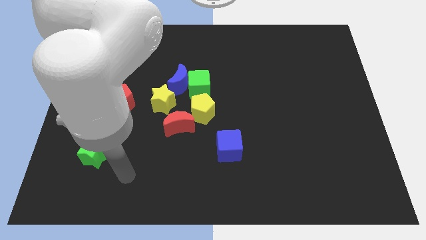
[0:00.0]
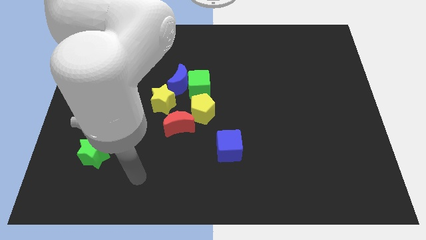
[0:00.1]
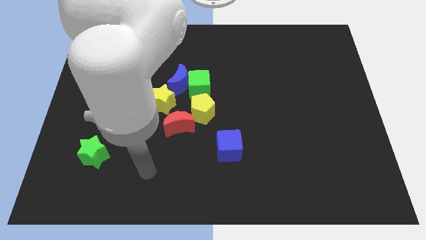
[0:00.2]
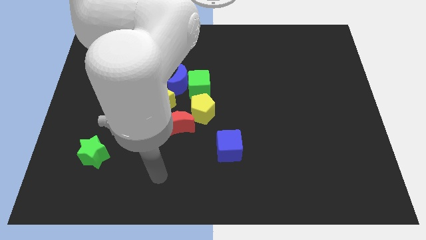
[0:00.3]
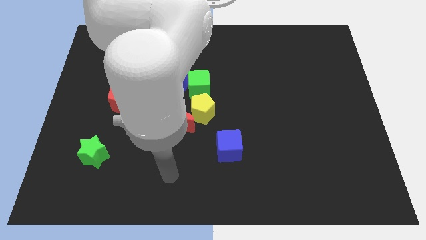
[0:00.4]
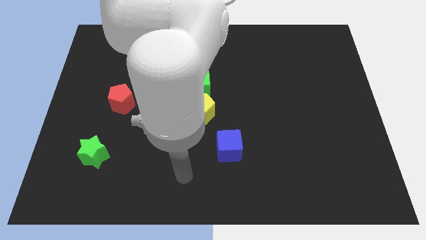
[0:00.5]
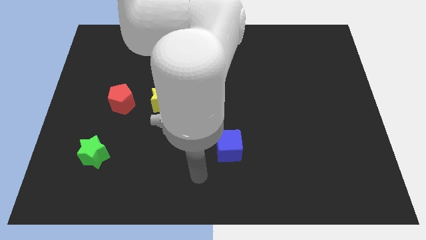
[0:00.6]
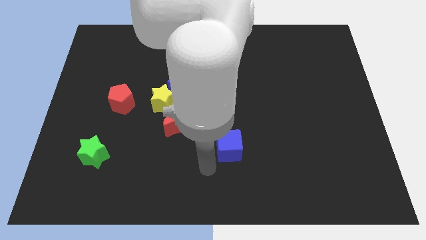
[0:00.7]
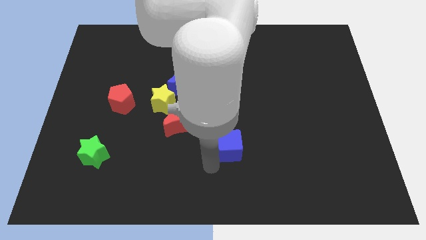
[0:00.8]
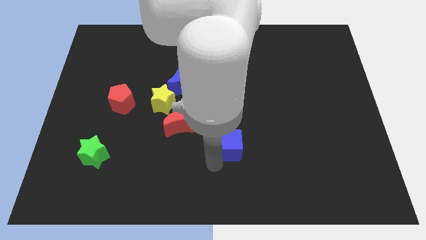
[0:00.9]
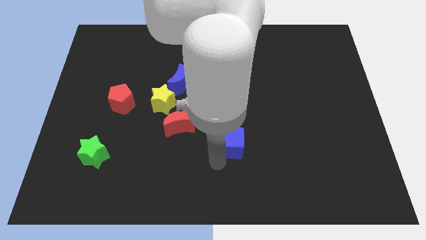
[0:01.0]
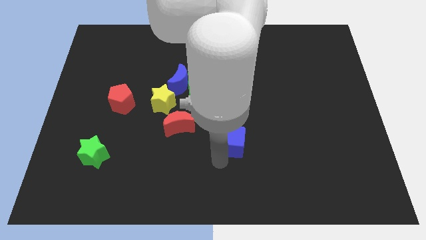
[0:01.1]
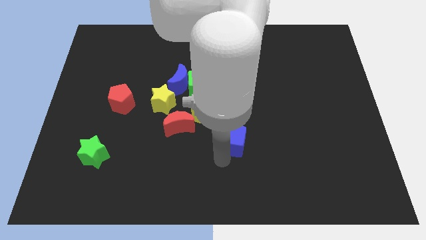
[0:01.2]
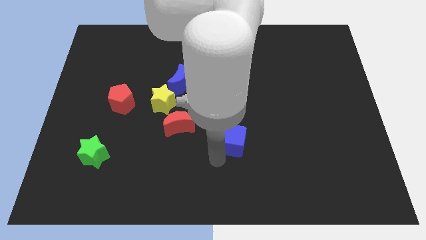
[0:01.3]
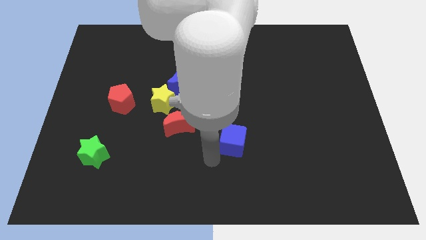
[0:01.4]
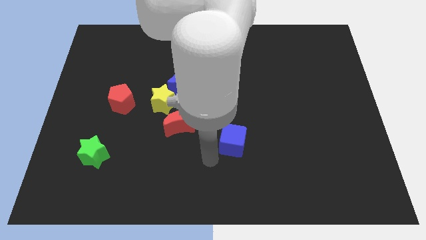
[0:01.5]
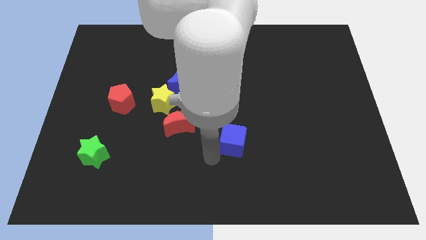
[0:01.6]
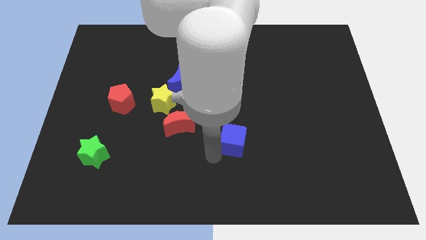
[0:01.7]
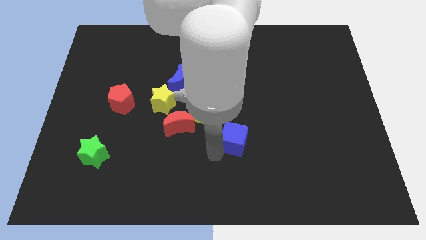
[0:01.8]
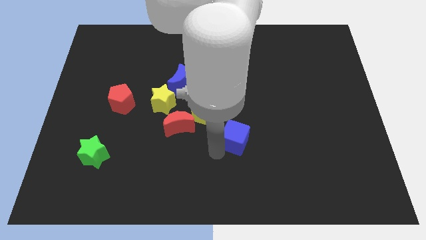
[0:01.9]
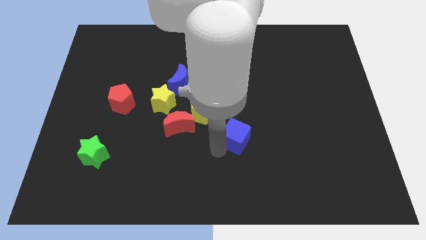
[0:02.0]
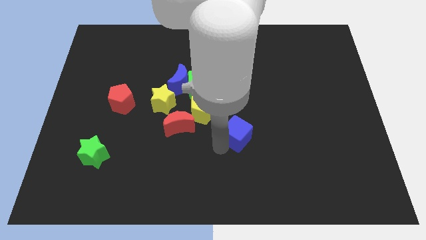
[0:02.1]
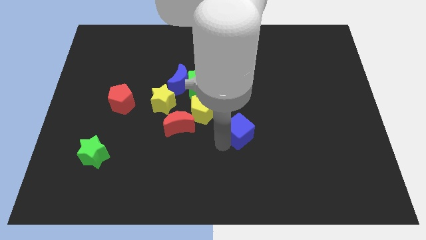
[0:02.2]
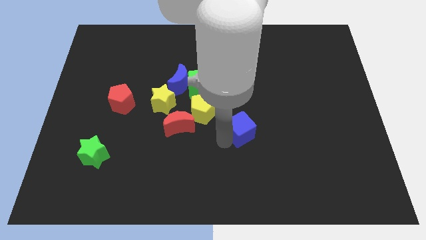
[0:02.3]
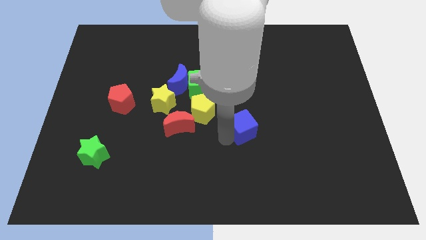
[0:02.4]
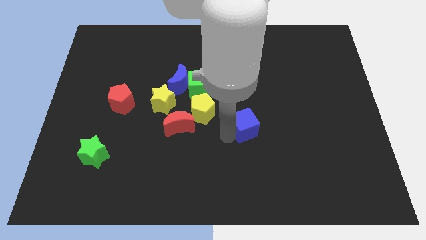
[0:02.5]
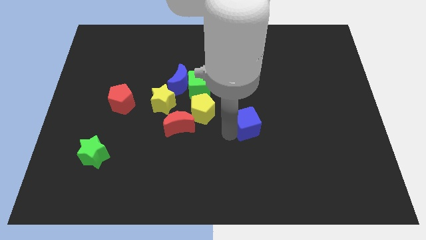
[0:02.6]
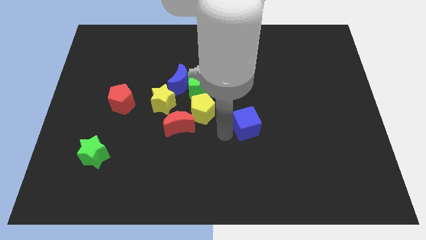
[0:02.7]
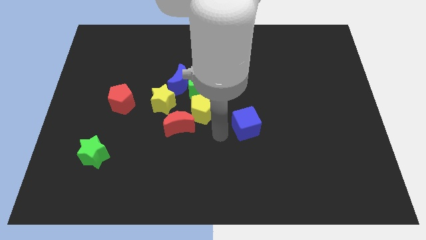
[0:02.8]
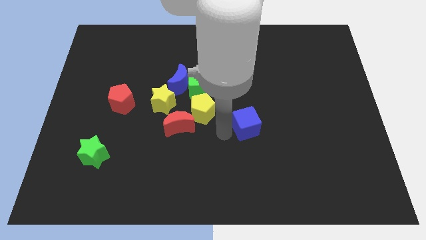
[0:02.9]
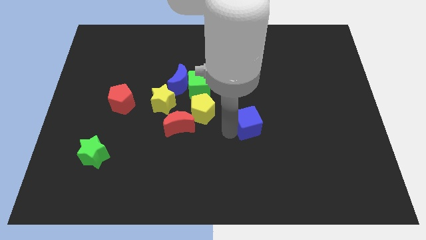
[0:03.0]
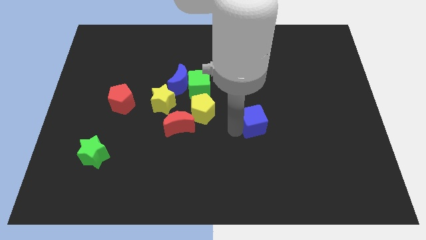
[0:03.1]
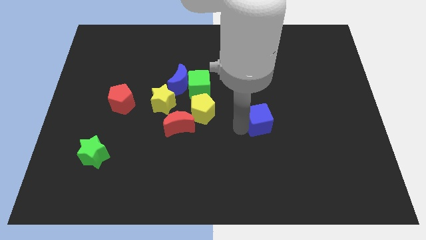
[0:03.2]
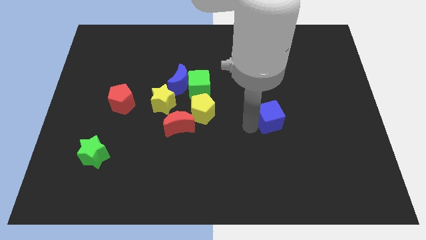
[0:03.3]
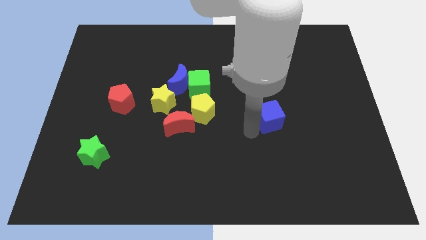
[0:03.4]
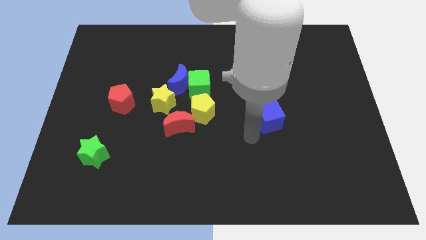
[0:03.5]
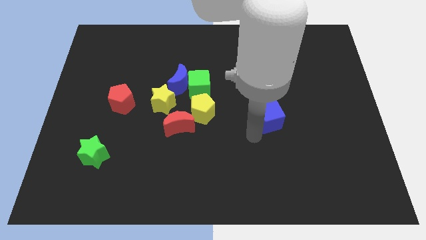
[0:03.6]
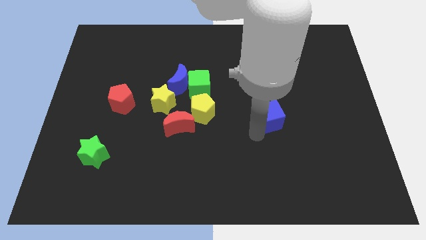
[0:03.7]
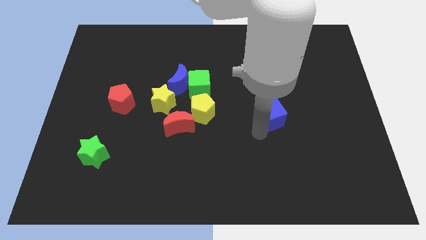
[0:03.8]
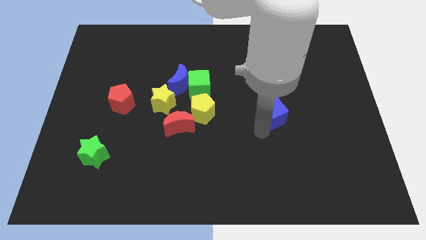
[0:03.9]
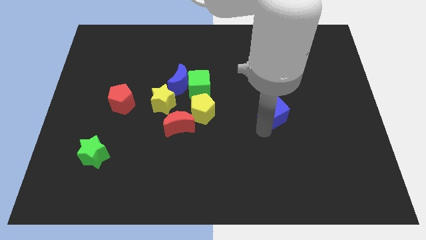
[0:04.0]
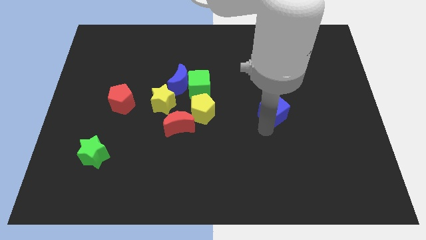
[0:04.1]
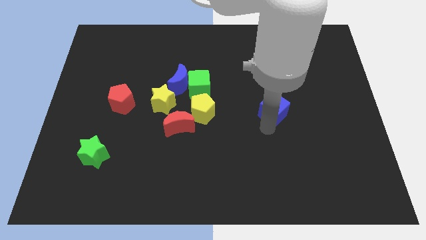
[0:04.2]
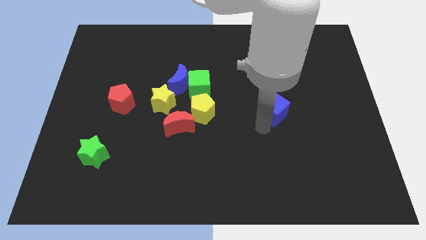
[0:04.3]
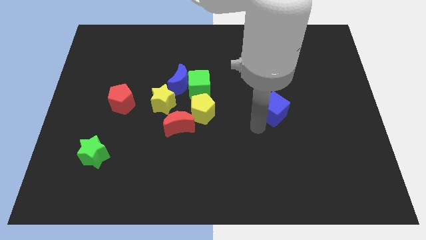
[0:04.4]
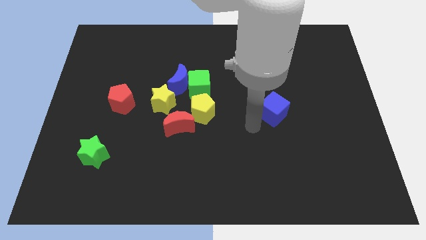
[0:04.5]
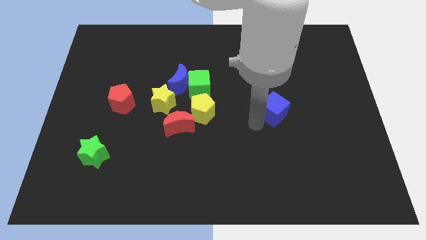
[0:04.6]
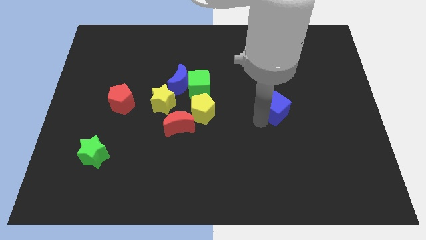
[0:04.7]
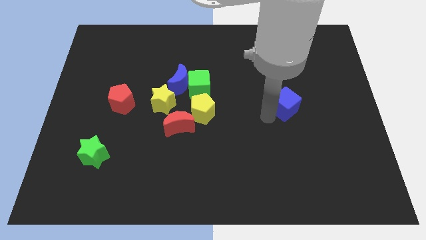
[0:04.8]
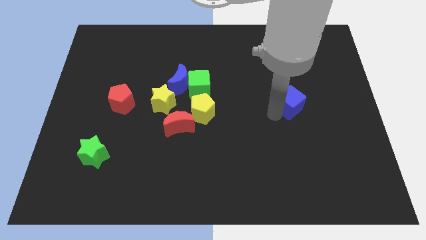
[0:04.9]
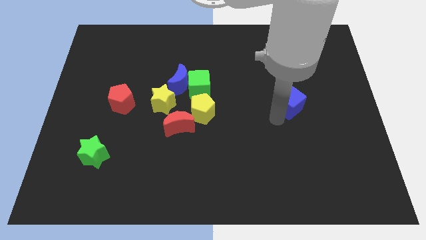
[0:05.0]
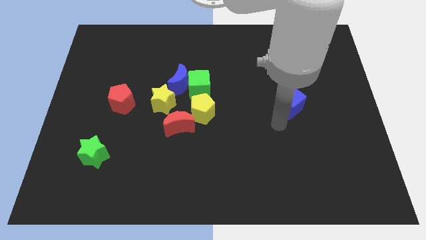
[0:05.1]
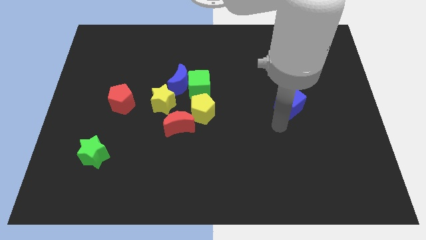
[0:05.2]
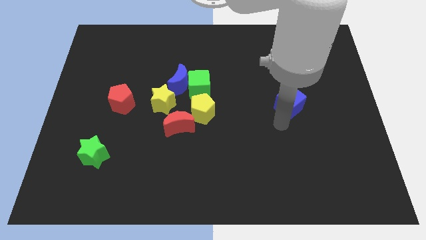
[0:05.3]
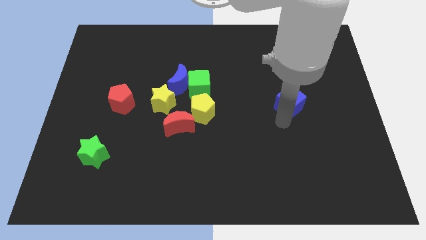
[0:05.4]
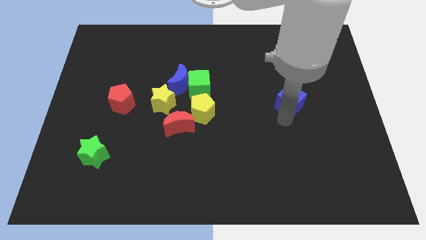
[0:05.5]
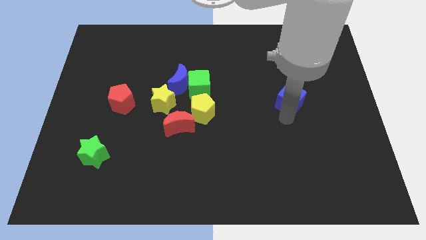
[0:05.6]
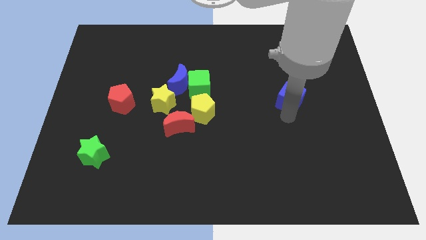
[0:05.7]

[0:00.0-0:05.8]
move the blue cube up and to the right

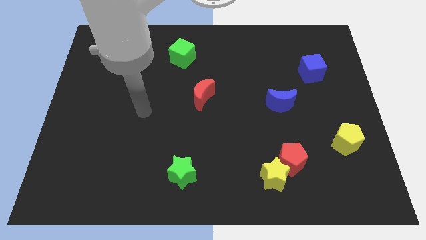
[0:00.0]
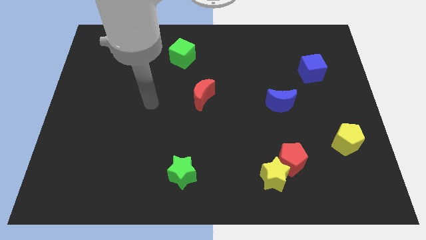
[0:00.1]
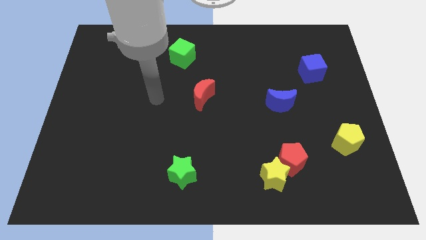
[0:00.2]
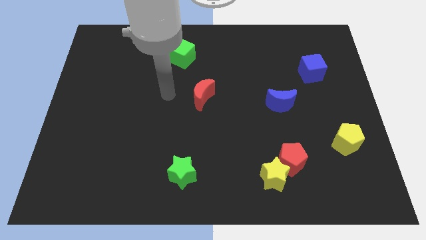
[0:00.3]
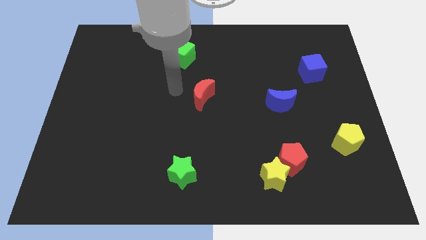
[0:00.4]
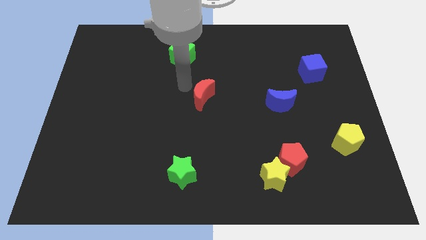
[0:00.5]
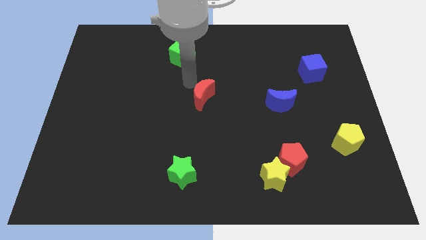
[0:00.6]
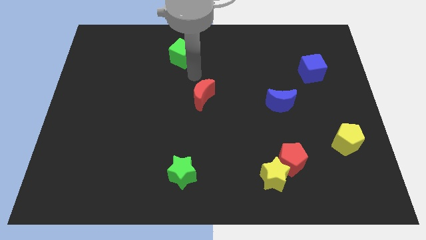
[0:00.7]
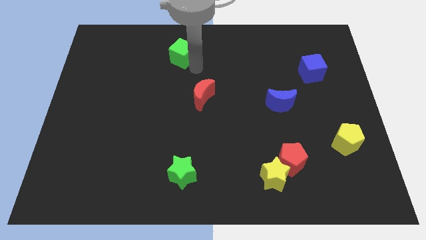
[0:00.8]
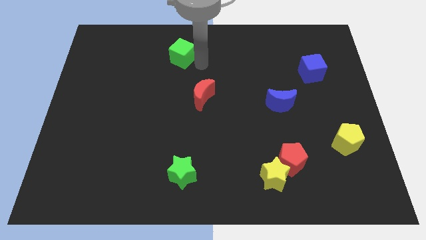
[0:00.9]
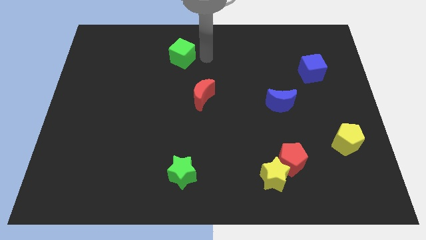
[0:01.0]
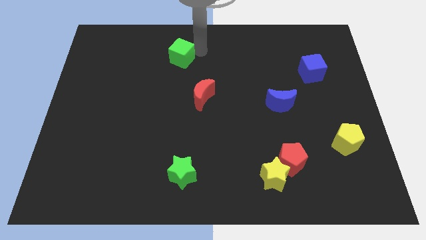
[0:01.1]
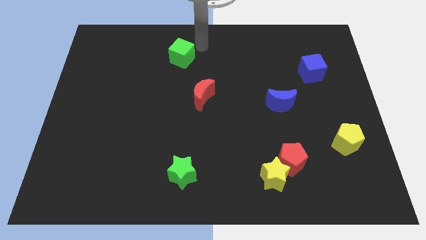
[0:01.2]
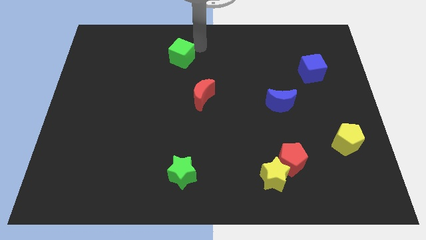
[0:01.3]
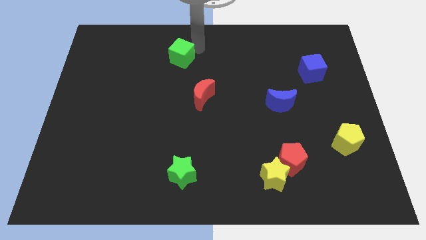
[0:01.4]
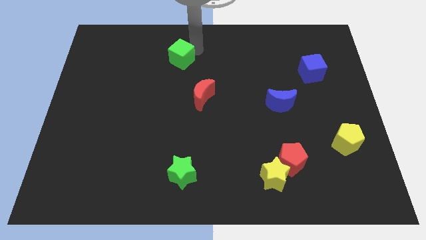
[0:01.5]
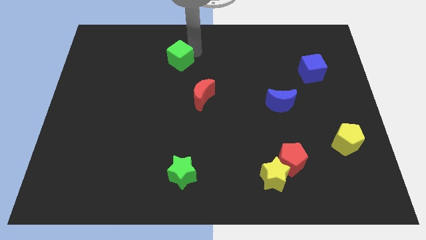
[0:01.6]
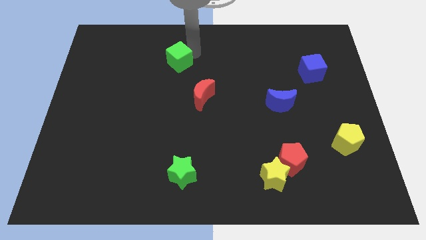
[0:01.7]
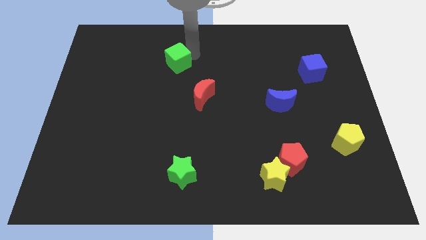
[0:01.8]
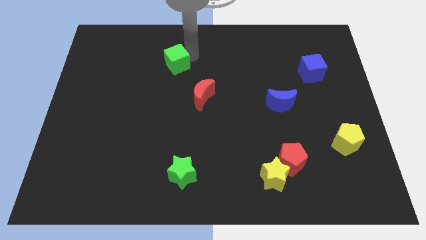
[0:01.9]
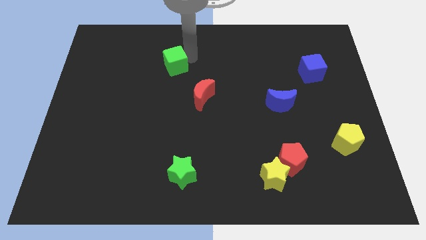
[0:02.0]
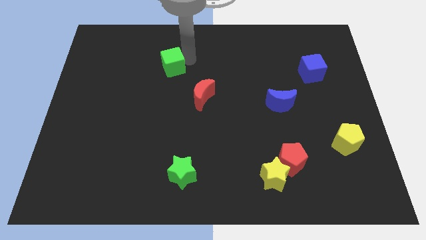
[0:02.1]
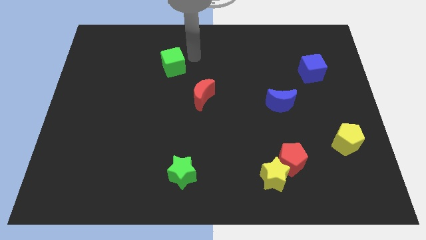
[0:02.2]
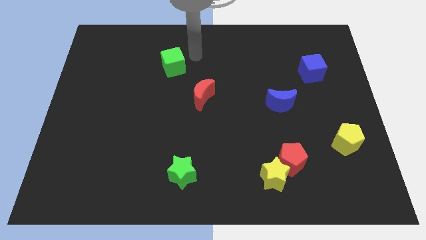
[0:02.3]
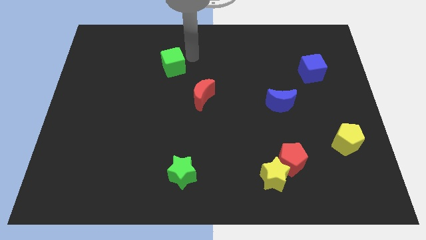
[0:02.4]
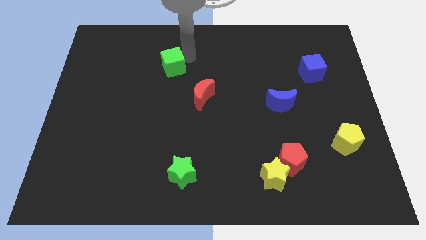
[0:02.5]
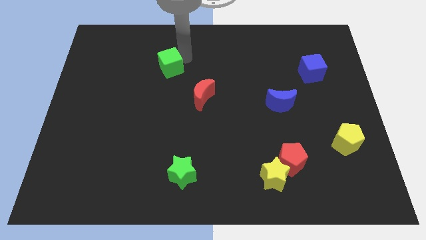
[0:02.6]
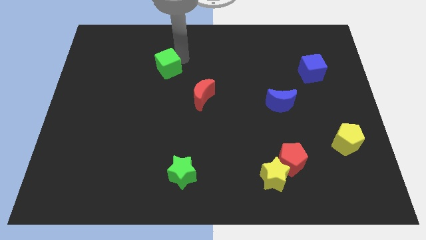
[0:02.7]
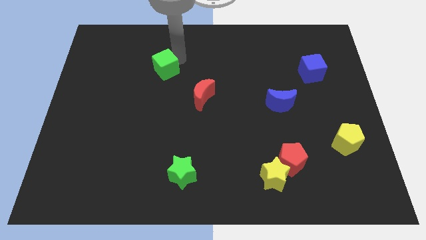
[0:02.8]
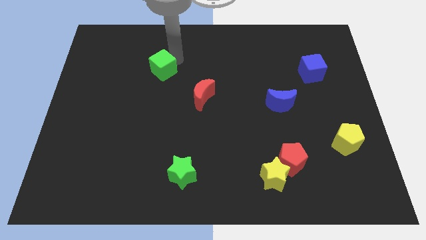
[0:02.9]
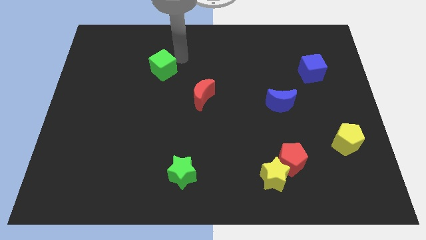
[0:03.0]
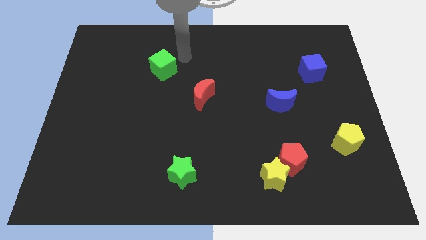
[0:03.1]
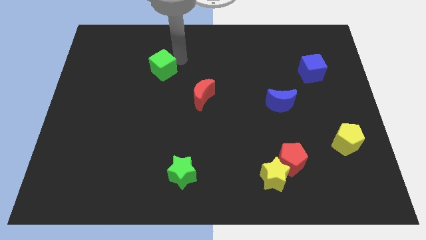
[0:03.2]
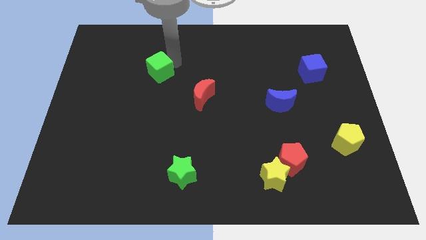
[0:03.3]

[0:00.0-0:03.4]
slightly slide the green cube down and then to the left
